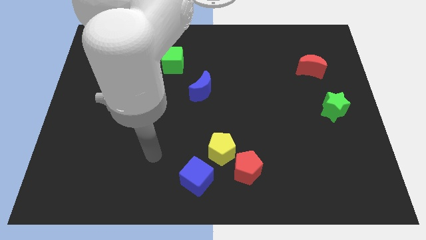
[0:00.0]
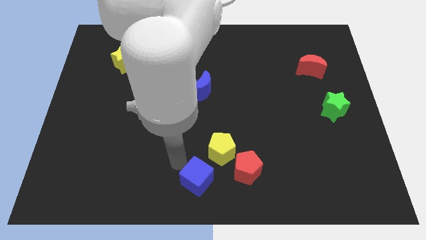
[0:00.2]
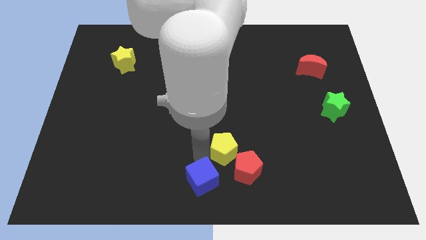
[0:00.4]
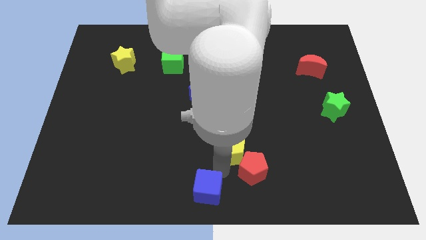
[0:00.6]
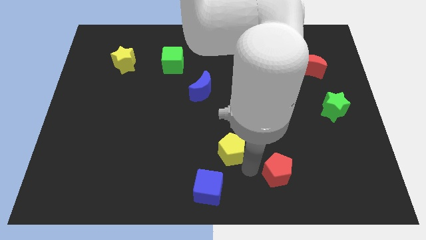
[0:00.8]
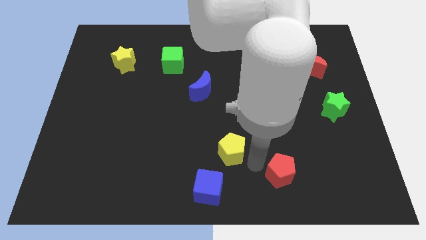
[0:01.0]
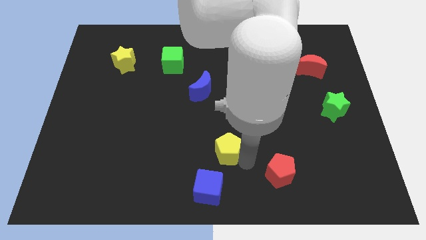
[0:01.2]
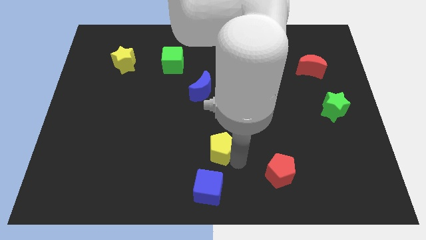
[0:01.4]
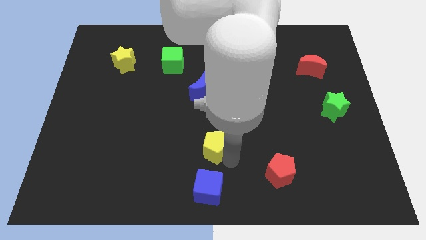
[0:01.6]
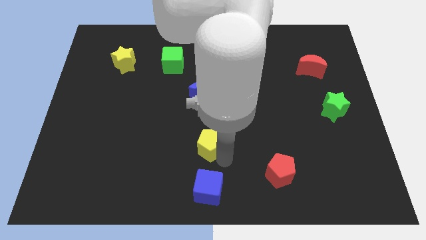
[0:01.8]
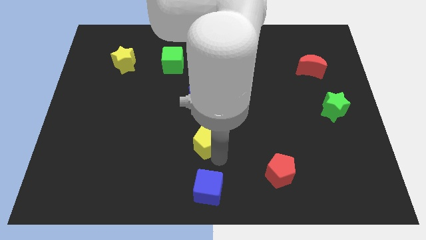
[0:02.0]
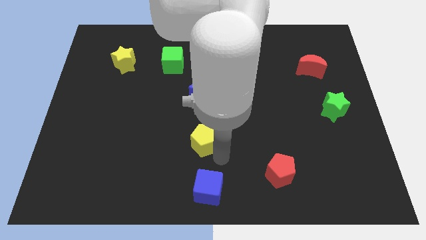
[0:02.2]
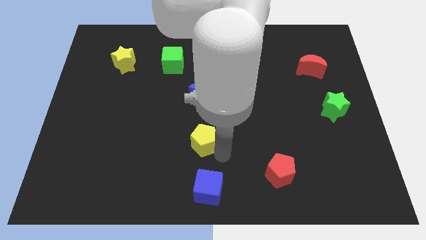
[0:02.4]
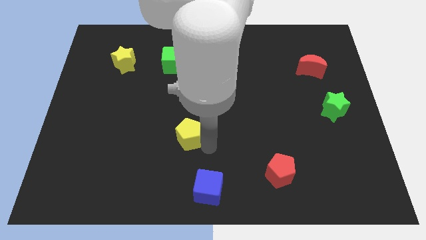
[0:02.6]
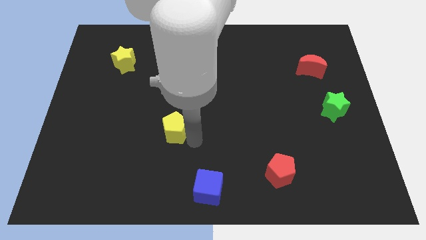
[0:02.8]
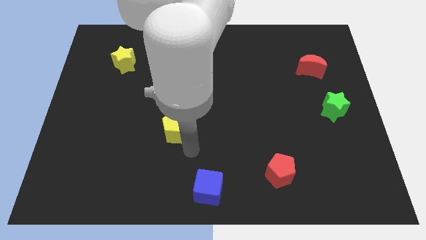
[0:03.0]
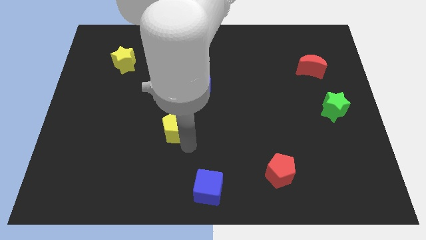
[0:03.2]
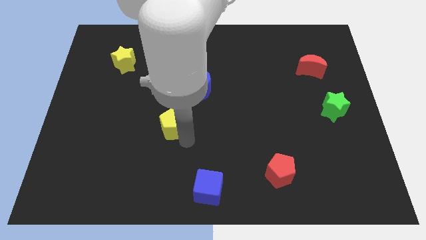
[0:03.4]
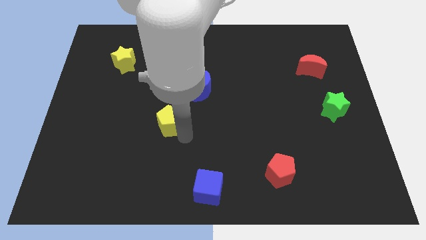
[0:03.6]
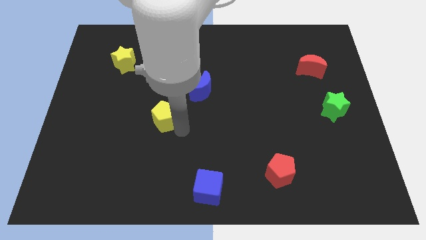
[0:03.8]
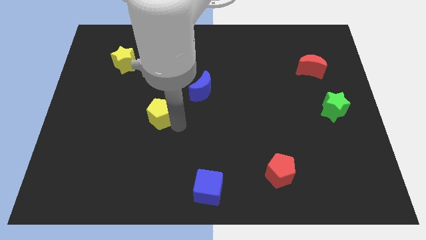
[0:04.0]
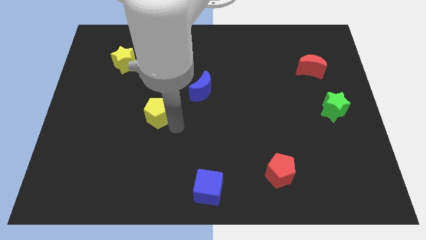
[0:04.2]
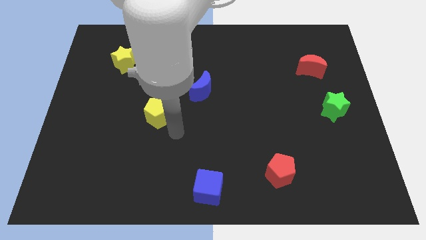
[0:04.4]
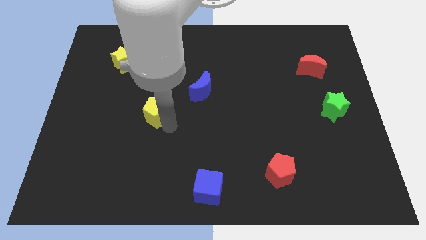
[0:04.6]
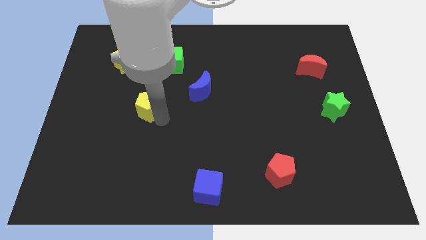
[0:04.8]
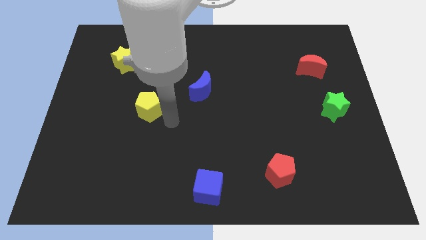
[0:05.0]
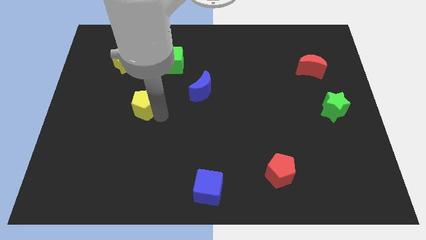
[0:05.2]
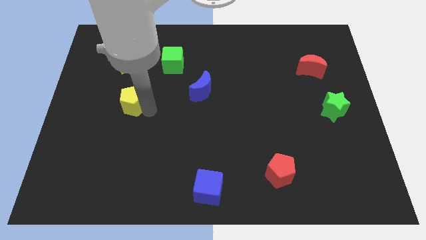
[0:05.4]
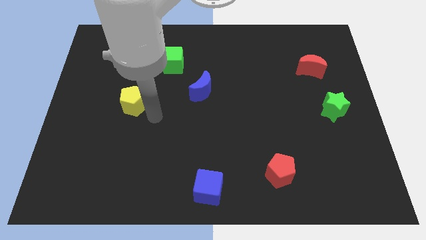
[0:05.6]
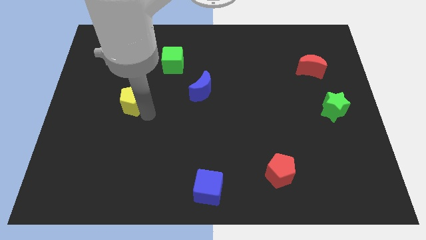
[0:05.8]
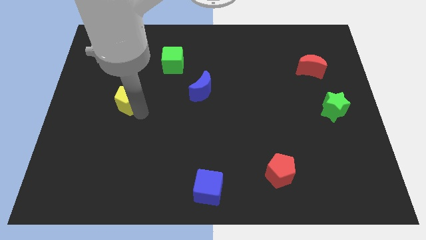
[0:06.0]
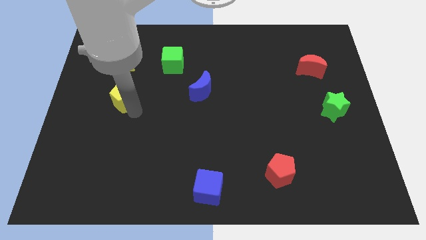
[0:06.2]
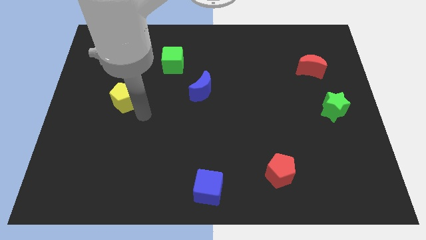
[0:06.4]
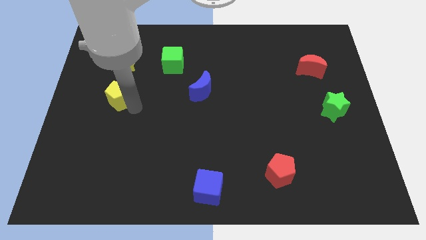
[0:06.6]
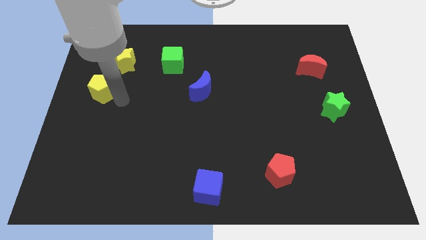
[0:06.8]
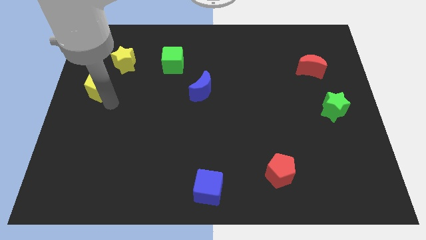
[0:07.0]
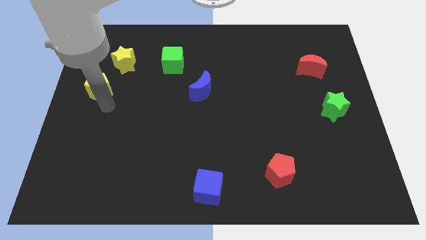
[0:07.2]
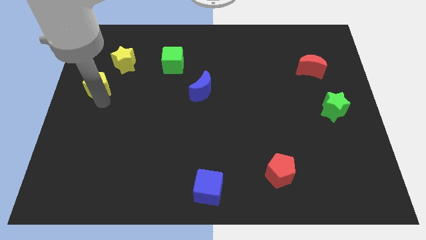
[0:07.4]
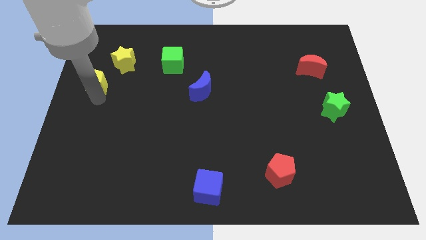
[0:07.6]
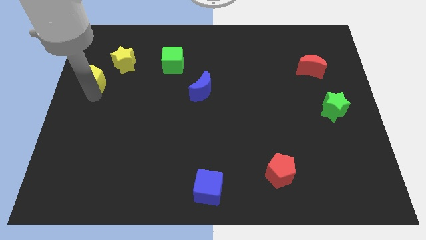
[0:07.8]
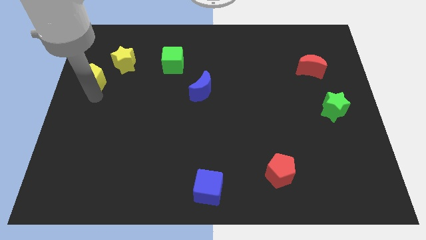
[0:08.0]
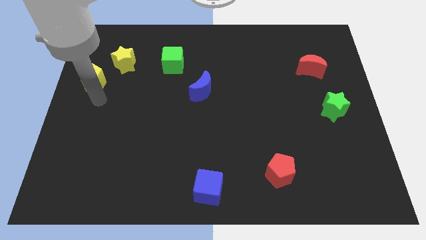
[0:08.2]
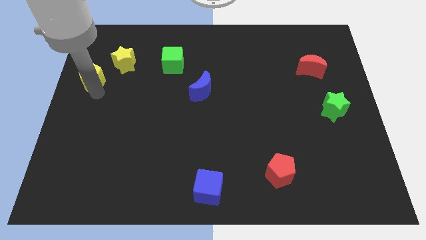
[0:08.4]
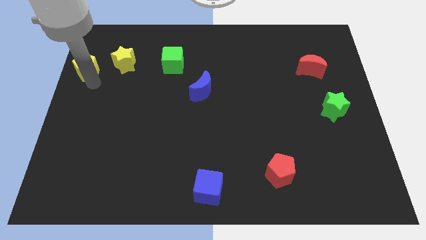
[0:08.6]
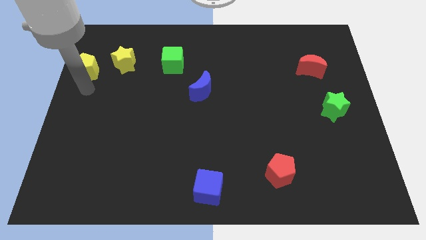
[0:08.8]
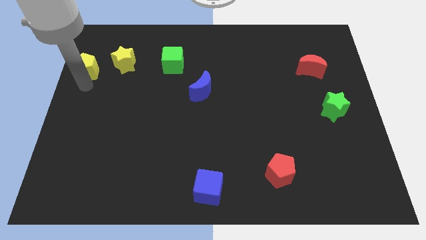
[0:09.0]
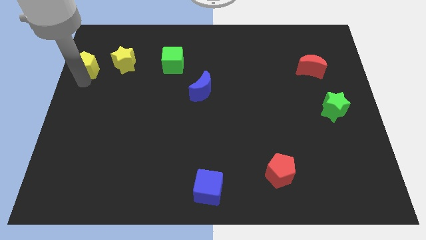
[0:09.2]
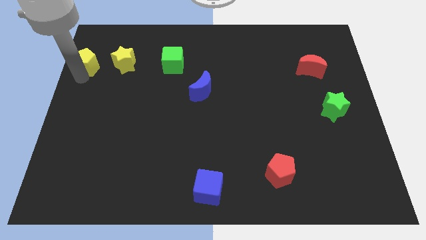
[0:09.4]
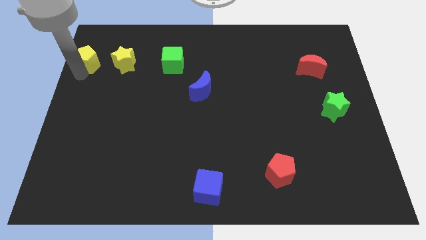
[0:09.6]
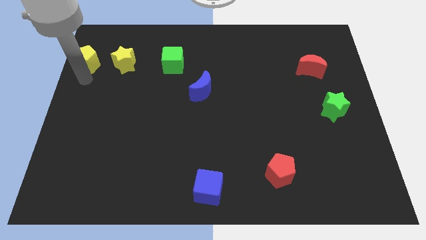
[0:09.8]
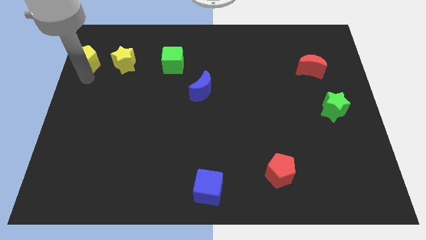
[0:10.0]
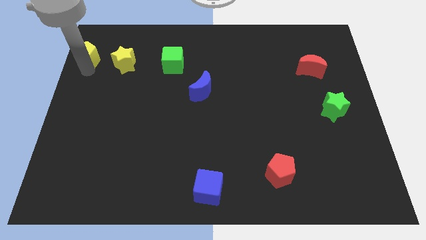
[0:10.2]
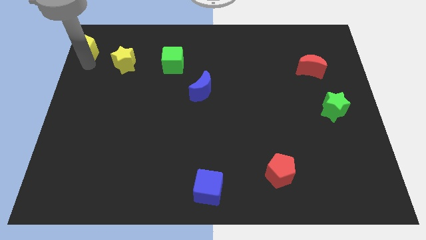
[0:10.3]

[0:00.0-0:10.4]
put the yellow pentagon to the upper left corner

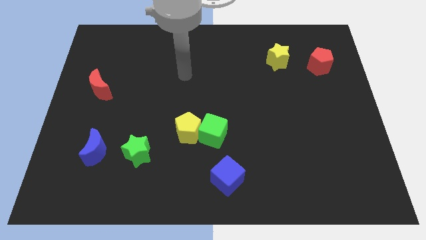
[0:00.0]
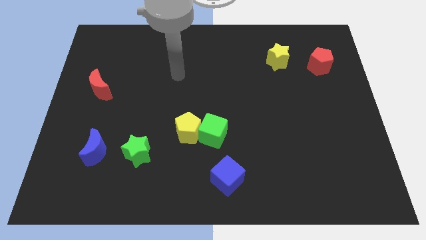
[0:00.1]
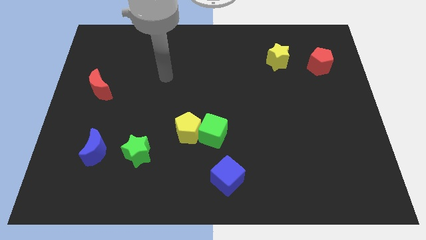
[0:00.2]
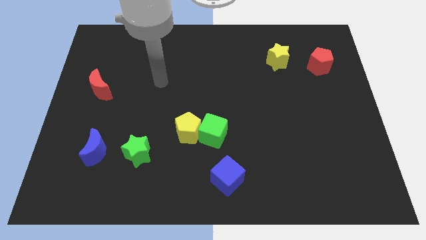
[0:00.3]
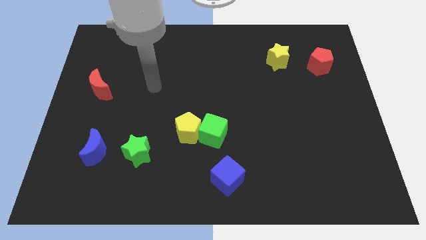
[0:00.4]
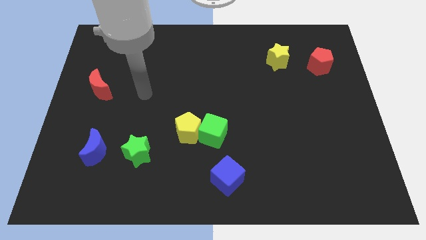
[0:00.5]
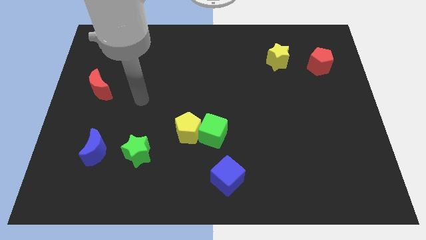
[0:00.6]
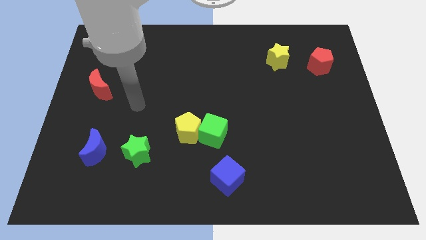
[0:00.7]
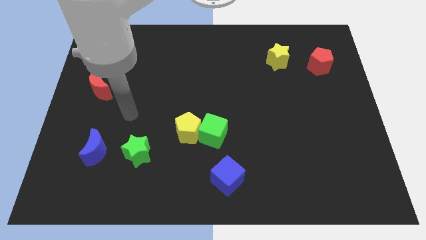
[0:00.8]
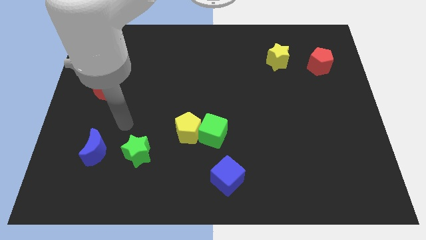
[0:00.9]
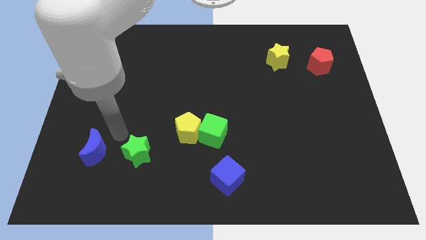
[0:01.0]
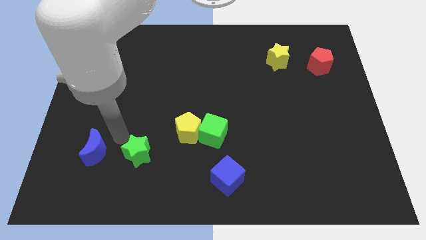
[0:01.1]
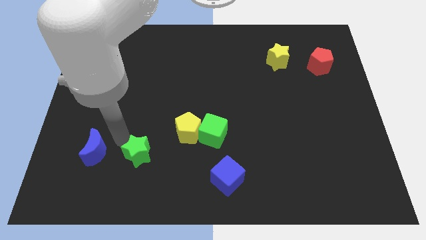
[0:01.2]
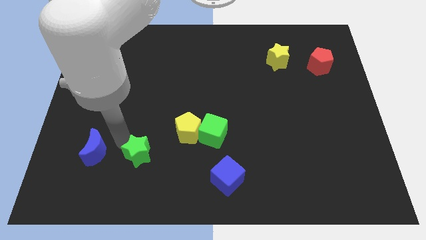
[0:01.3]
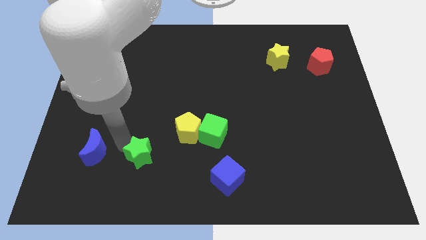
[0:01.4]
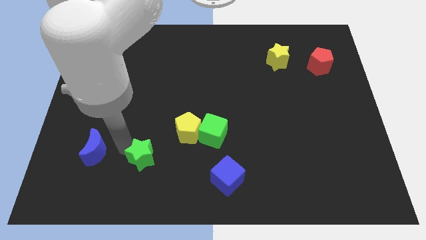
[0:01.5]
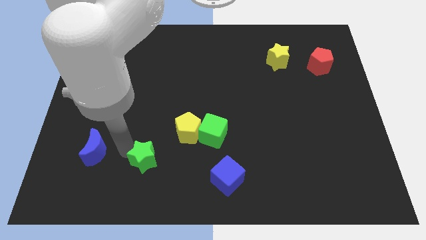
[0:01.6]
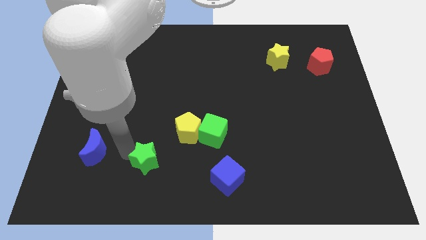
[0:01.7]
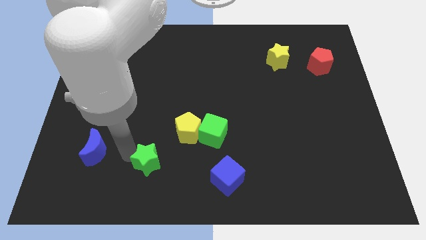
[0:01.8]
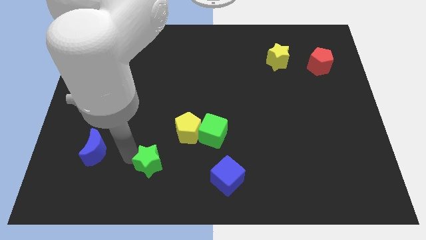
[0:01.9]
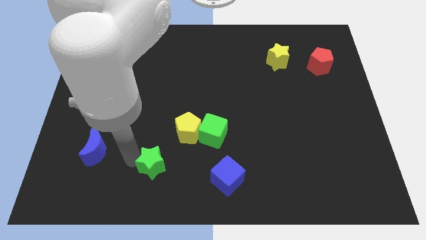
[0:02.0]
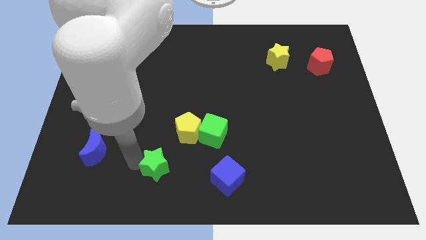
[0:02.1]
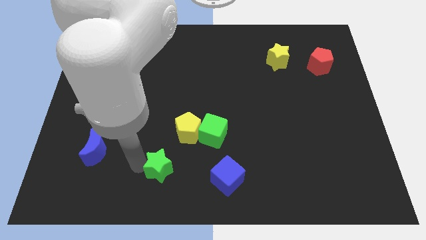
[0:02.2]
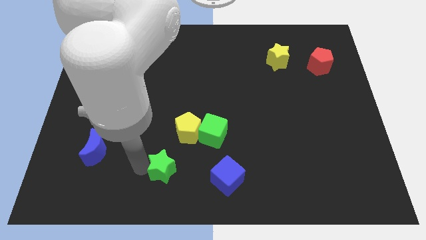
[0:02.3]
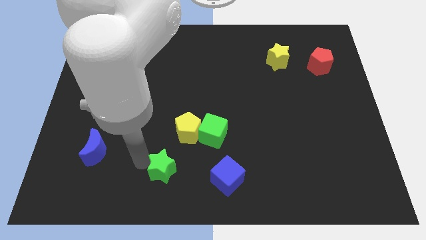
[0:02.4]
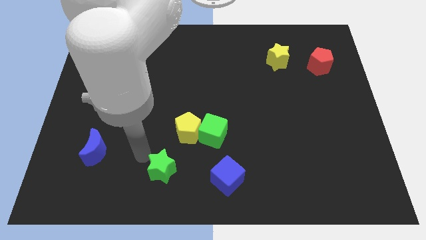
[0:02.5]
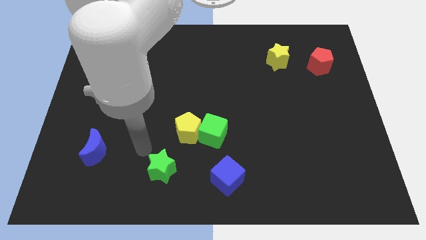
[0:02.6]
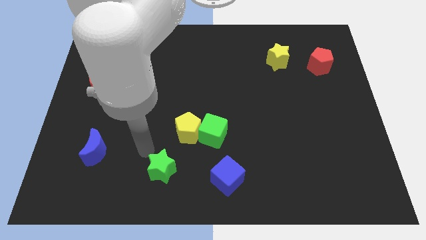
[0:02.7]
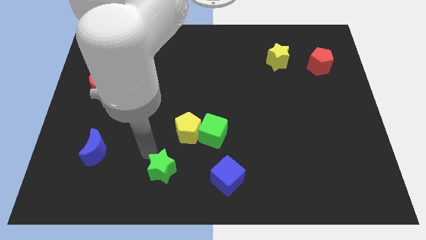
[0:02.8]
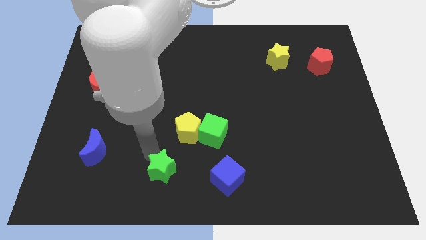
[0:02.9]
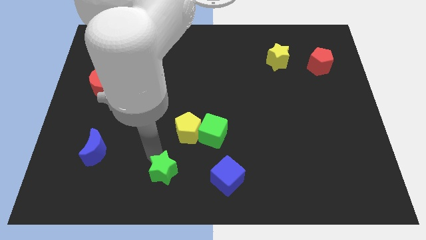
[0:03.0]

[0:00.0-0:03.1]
move the green star to the bottom side
